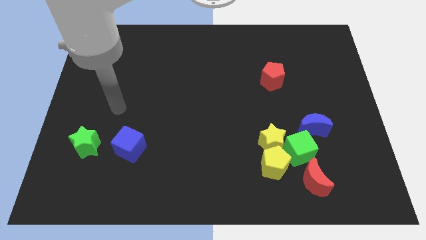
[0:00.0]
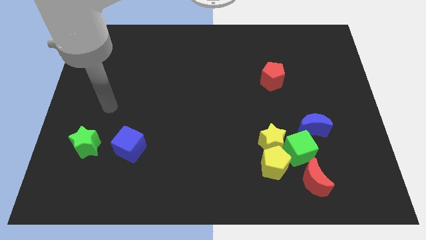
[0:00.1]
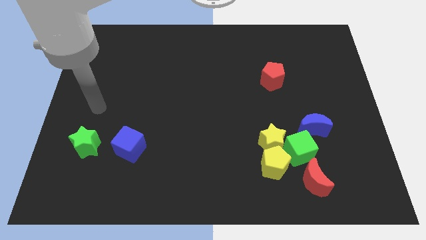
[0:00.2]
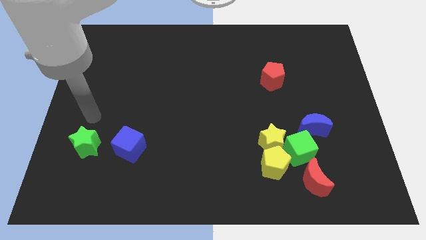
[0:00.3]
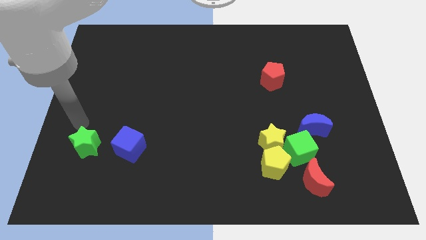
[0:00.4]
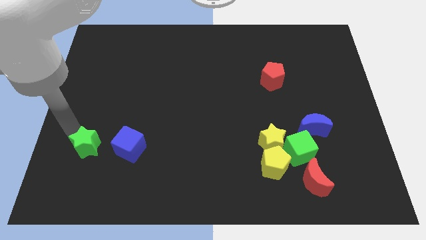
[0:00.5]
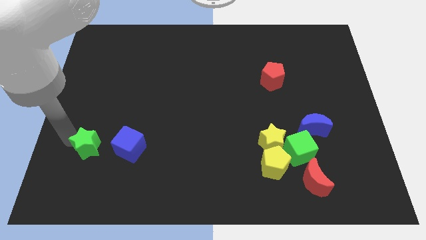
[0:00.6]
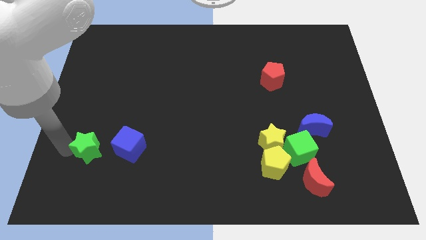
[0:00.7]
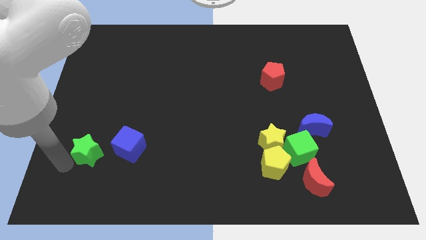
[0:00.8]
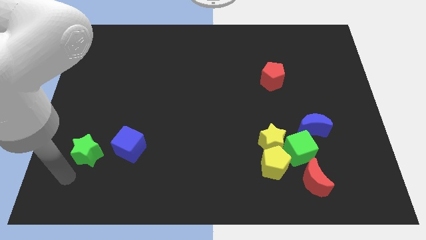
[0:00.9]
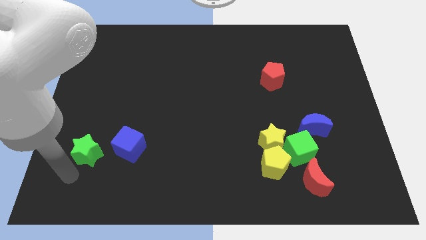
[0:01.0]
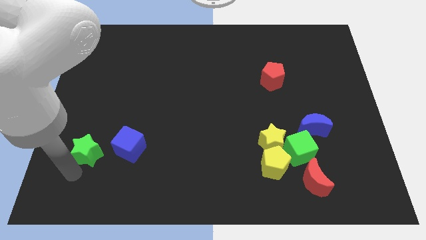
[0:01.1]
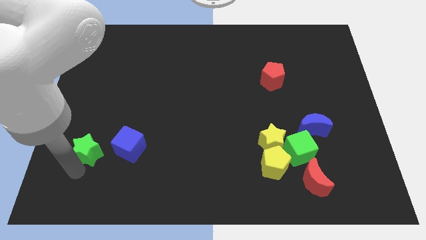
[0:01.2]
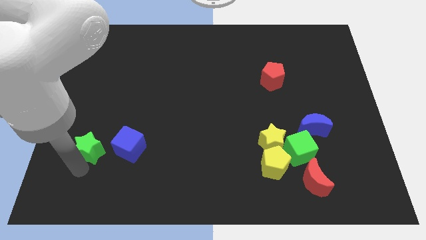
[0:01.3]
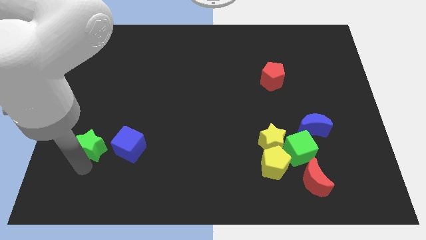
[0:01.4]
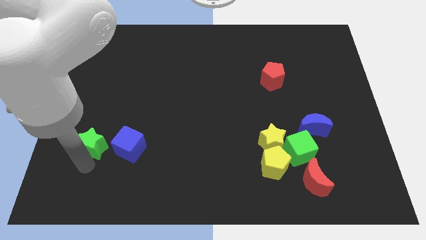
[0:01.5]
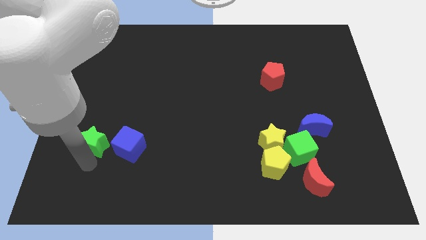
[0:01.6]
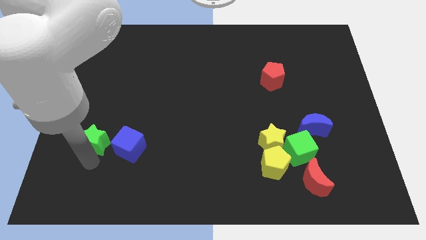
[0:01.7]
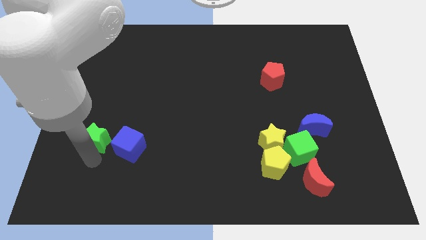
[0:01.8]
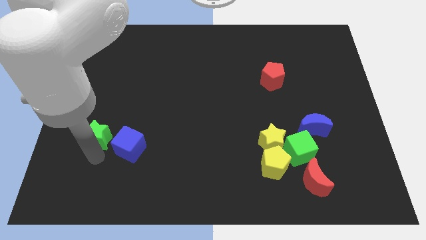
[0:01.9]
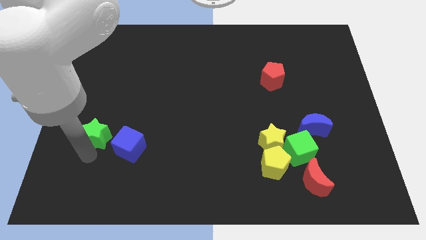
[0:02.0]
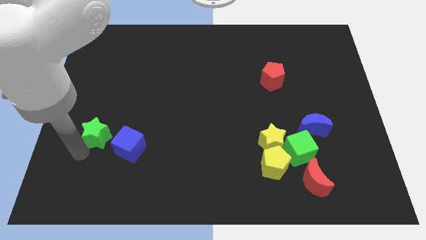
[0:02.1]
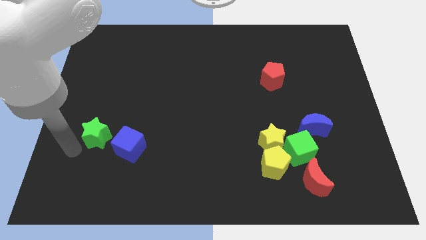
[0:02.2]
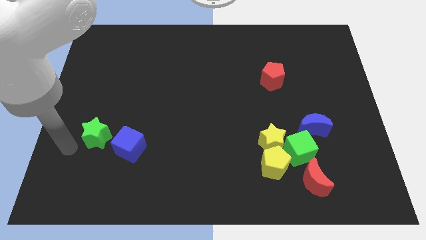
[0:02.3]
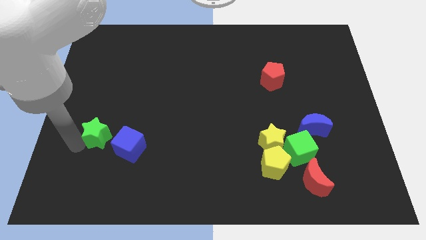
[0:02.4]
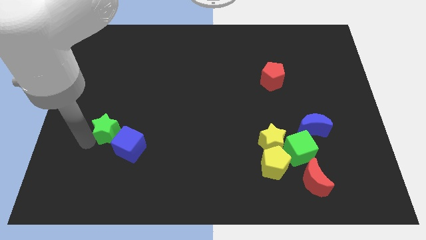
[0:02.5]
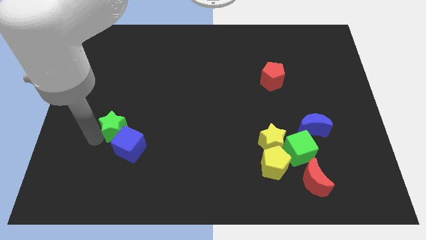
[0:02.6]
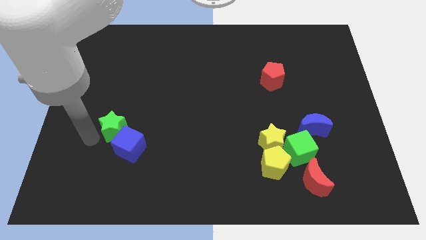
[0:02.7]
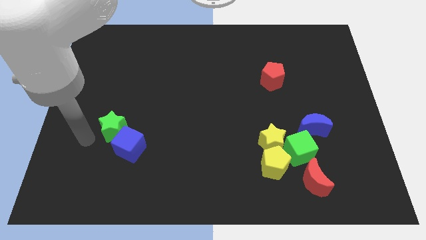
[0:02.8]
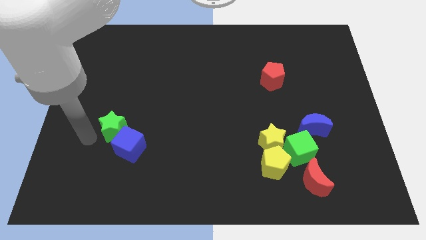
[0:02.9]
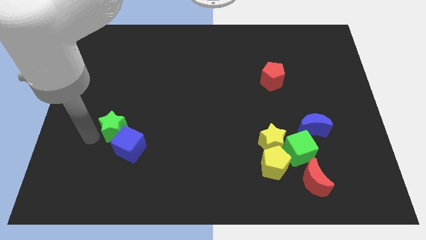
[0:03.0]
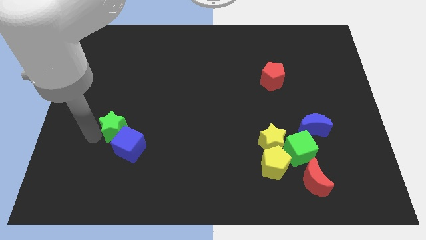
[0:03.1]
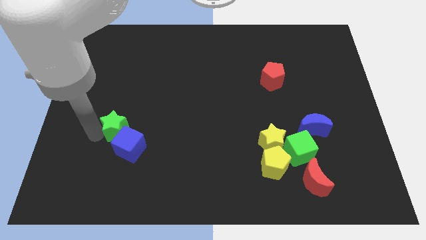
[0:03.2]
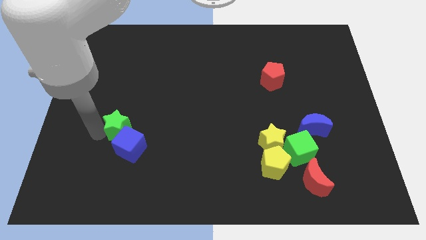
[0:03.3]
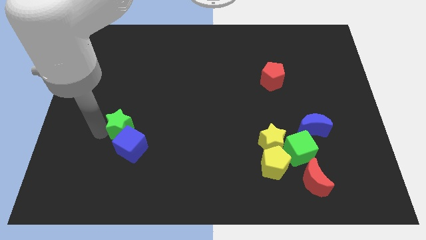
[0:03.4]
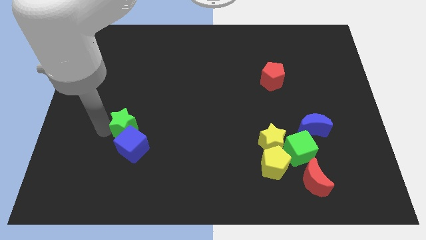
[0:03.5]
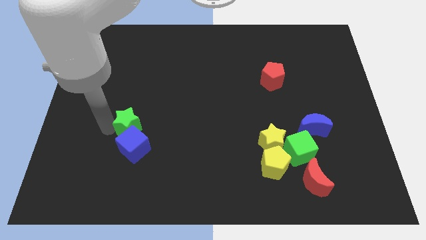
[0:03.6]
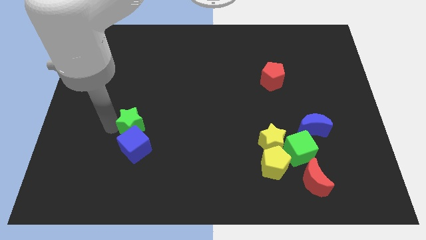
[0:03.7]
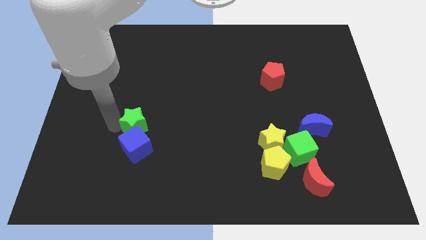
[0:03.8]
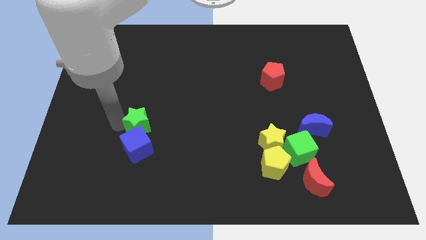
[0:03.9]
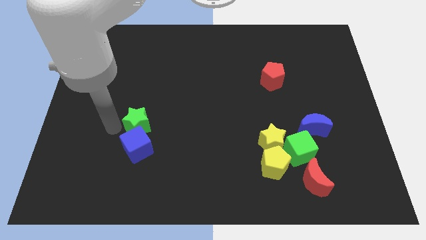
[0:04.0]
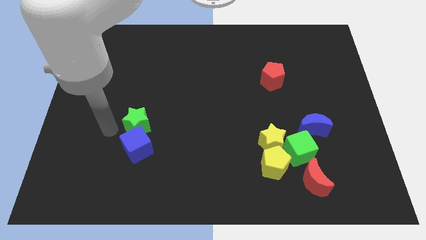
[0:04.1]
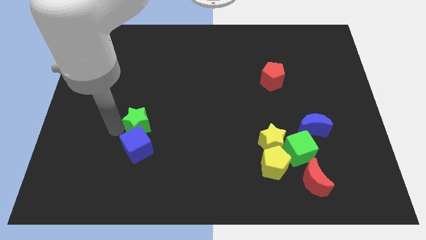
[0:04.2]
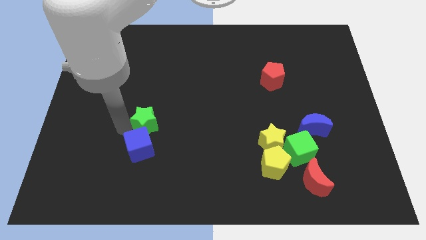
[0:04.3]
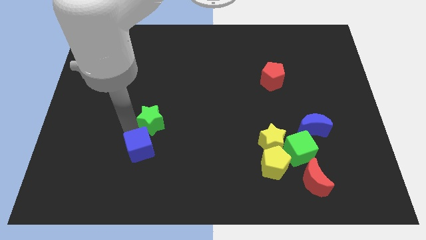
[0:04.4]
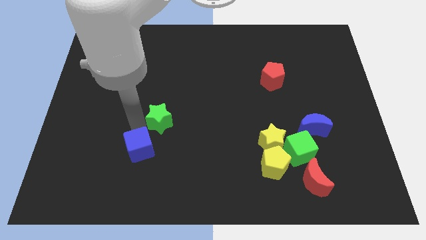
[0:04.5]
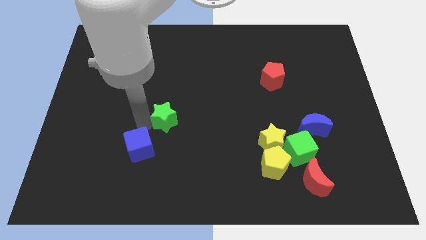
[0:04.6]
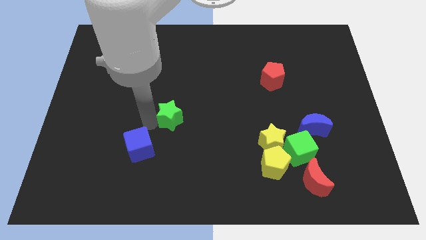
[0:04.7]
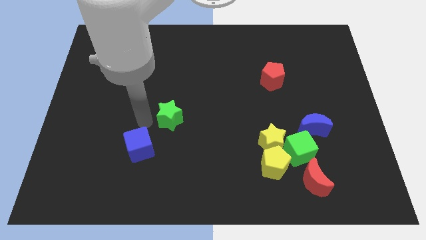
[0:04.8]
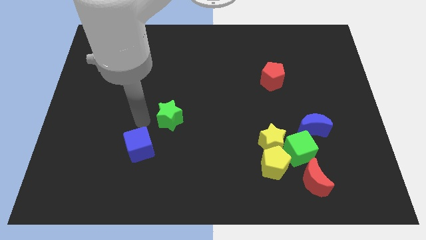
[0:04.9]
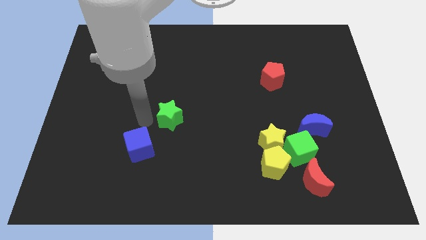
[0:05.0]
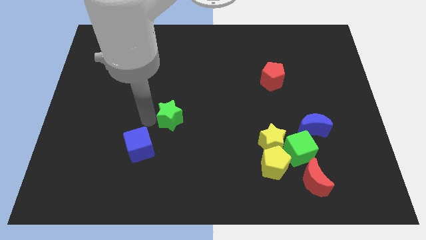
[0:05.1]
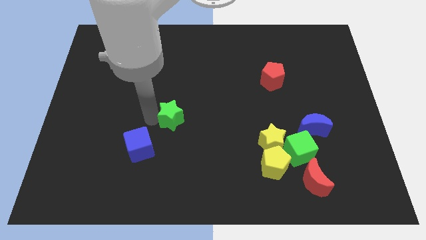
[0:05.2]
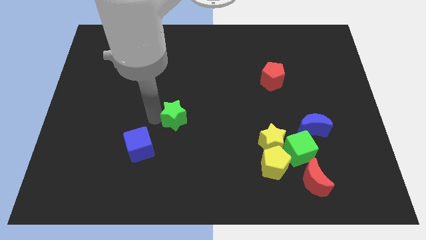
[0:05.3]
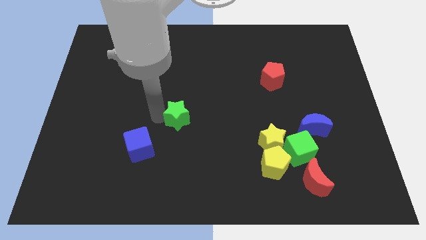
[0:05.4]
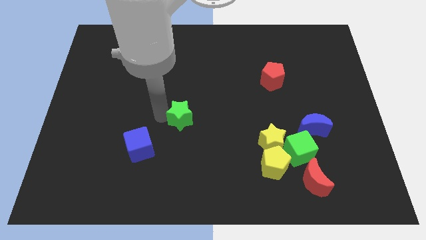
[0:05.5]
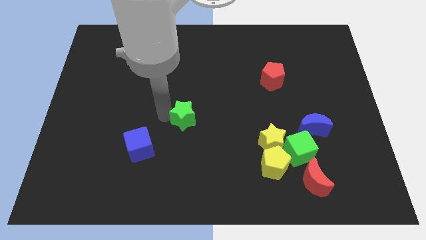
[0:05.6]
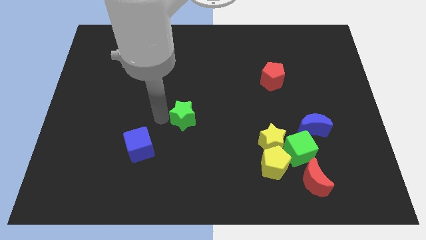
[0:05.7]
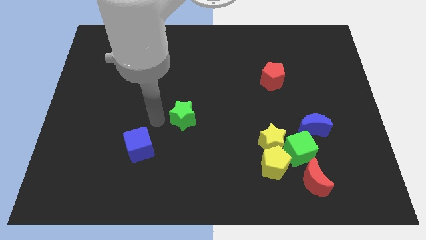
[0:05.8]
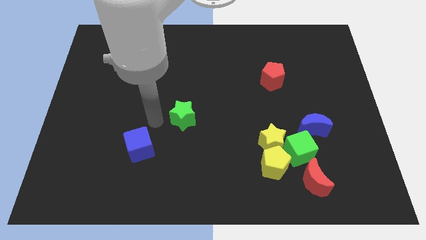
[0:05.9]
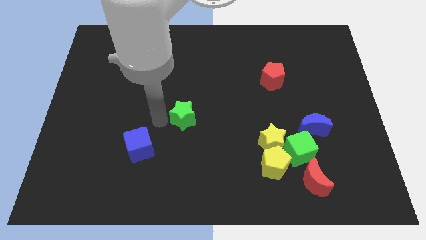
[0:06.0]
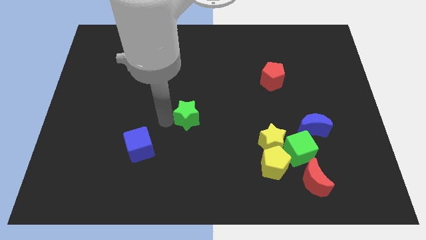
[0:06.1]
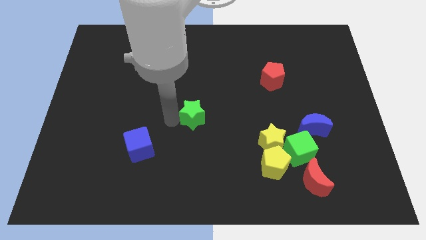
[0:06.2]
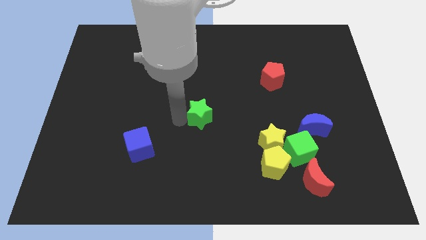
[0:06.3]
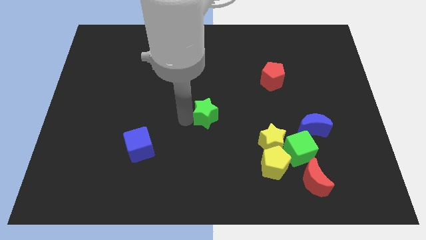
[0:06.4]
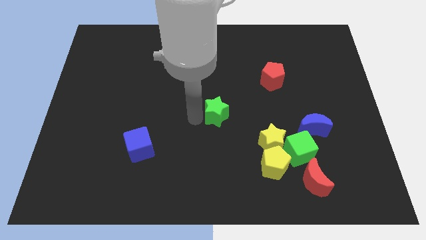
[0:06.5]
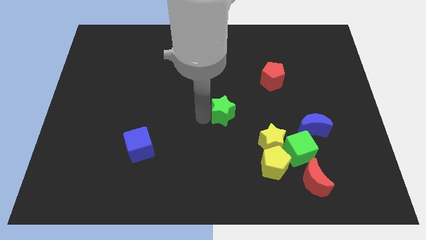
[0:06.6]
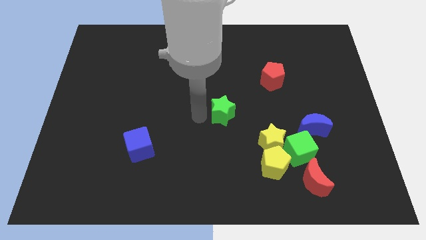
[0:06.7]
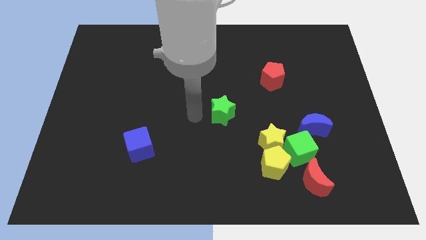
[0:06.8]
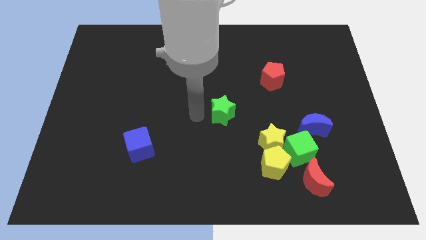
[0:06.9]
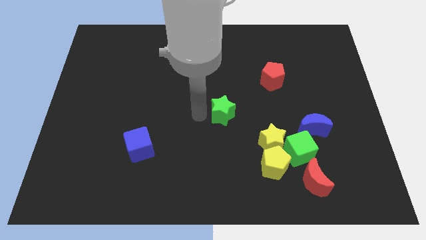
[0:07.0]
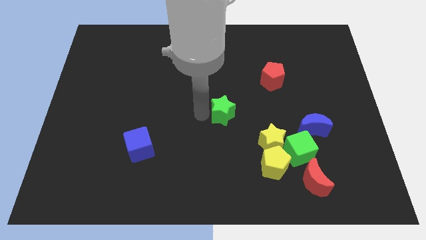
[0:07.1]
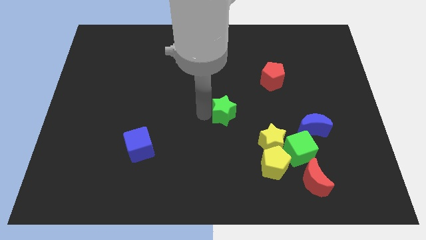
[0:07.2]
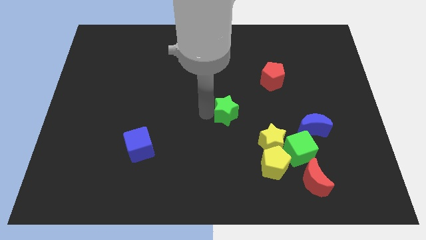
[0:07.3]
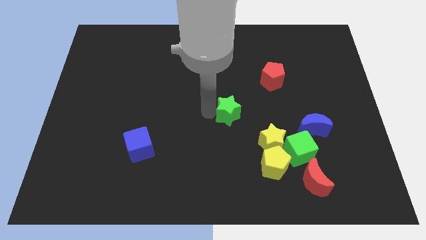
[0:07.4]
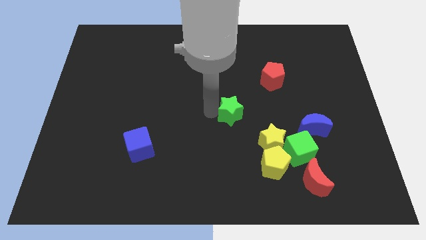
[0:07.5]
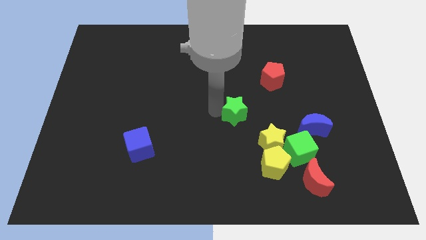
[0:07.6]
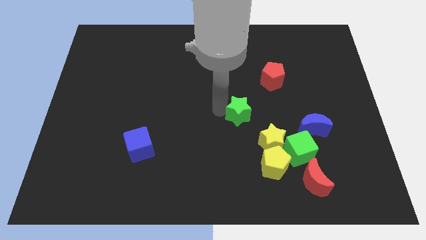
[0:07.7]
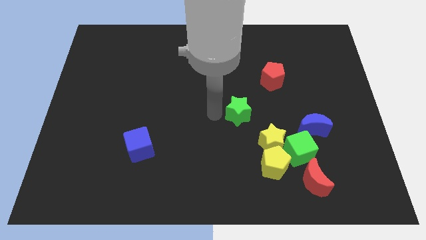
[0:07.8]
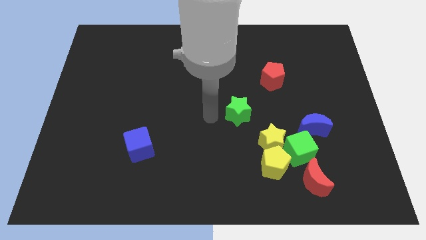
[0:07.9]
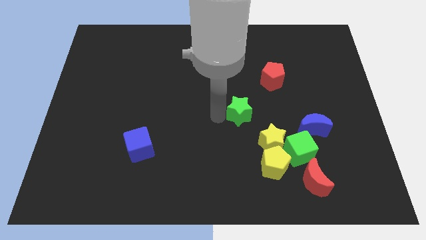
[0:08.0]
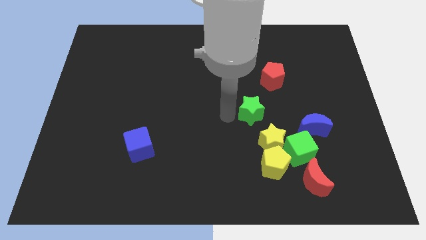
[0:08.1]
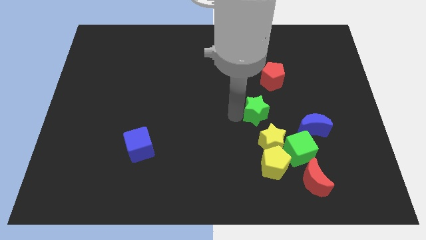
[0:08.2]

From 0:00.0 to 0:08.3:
push the green star to the bottom side of the red pentagon
